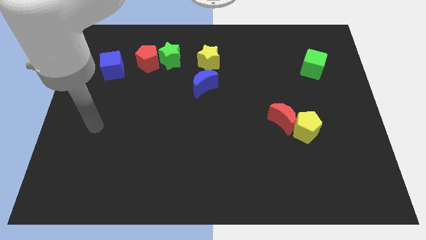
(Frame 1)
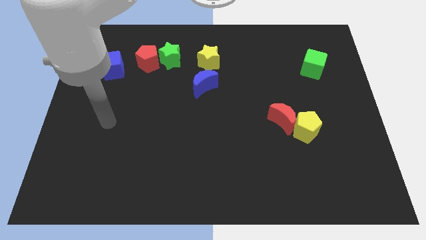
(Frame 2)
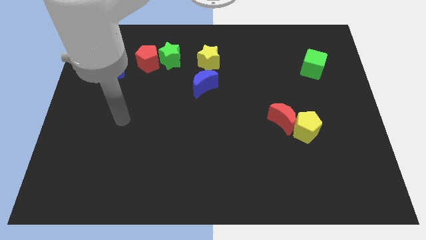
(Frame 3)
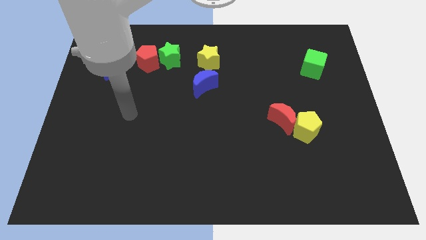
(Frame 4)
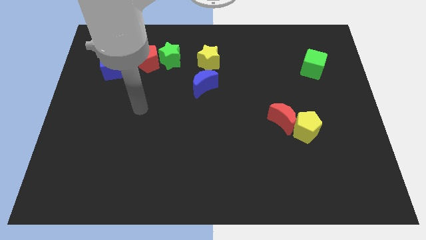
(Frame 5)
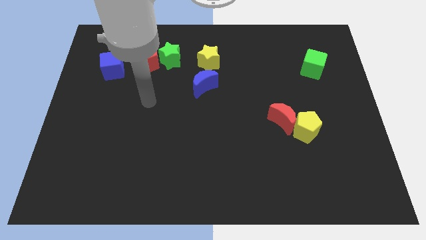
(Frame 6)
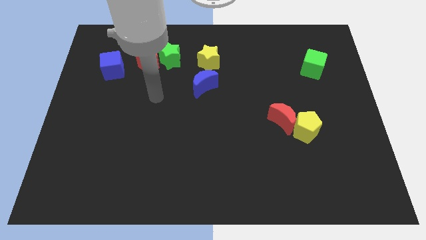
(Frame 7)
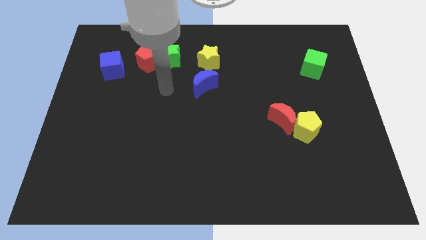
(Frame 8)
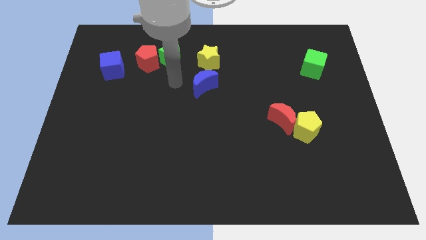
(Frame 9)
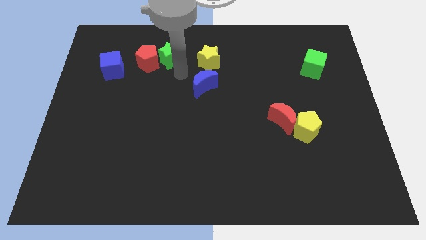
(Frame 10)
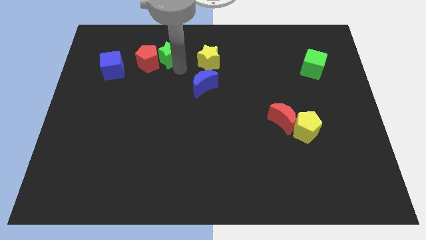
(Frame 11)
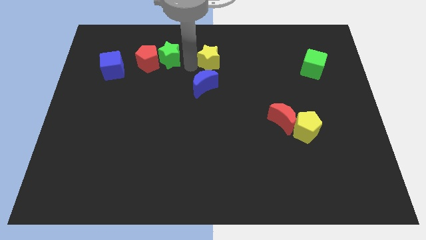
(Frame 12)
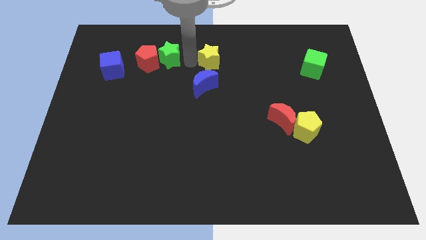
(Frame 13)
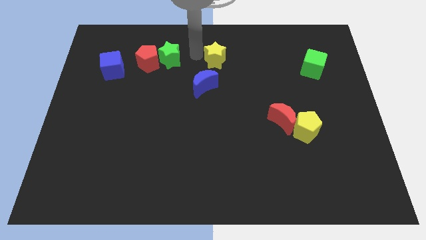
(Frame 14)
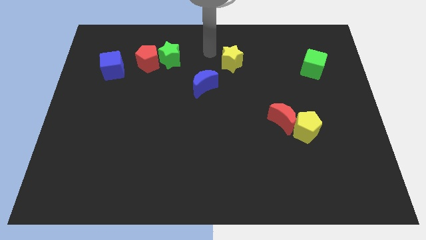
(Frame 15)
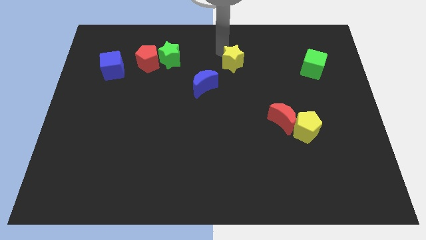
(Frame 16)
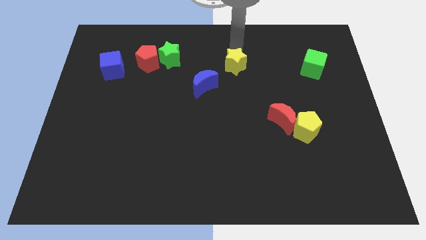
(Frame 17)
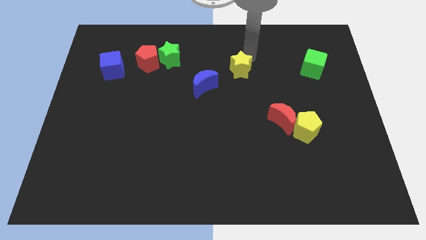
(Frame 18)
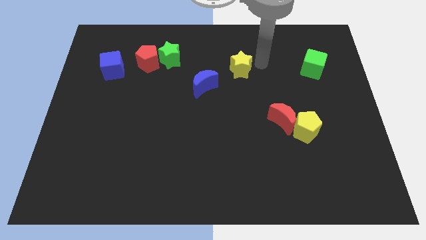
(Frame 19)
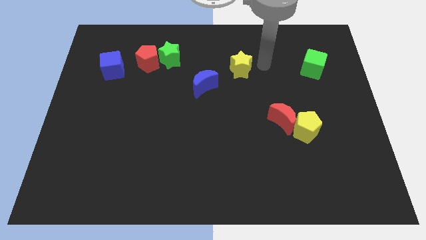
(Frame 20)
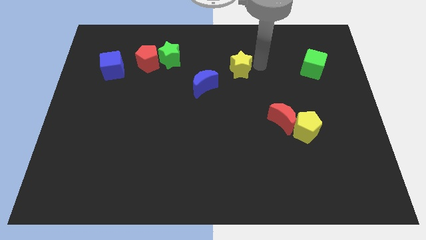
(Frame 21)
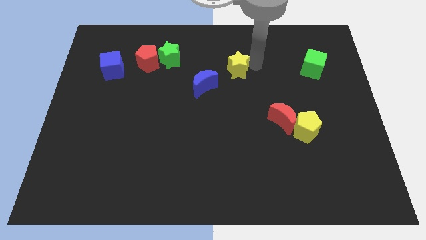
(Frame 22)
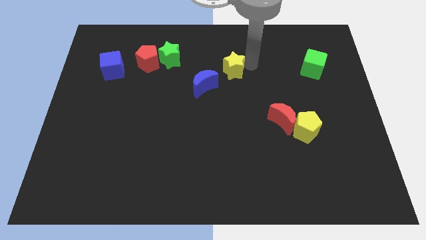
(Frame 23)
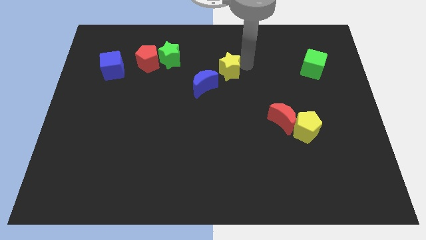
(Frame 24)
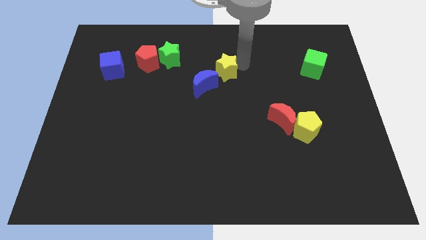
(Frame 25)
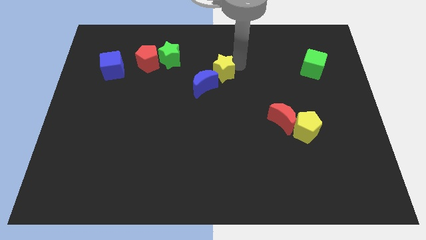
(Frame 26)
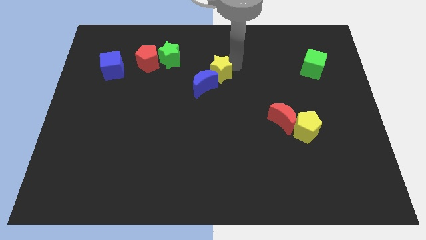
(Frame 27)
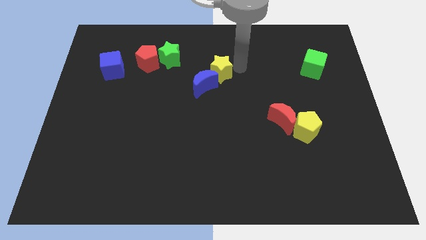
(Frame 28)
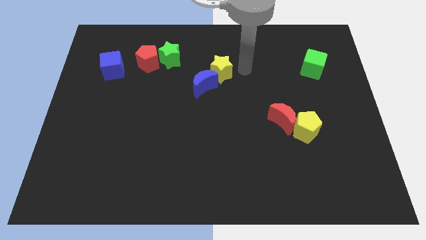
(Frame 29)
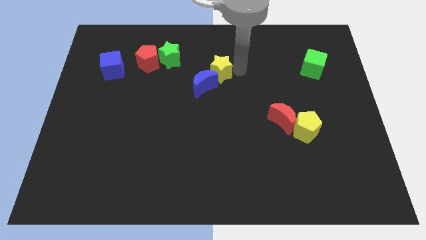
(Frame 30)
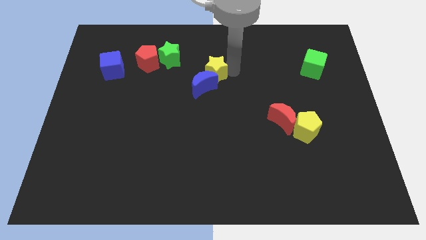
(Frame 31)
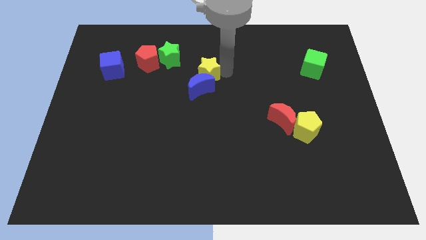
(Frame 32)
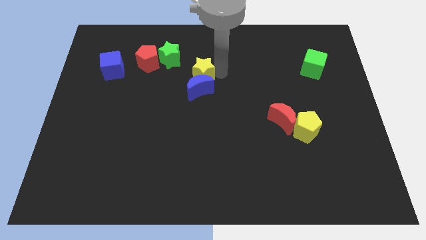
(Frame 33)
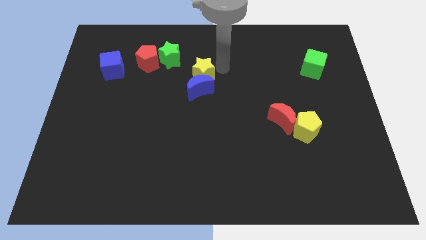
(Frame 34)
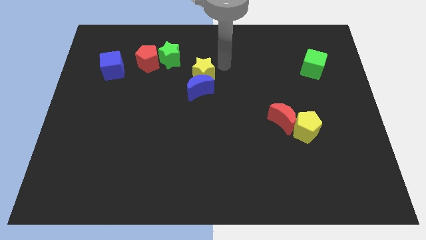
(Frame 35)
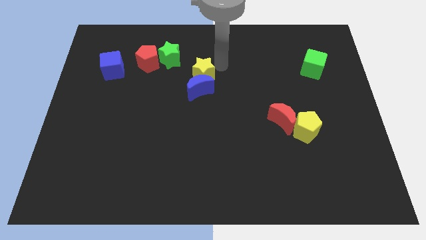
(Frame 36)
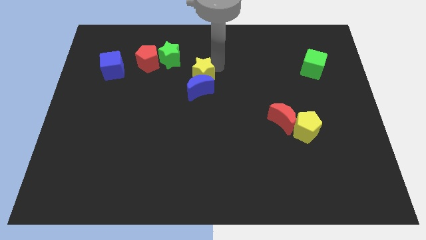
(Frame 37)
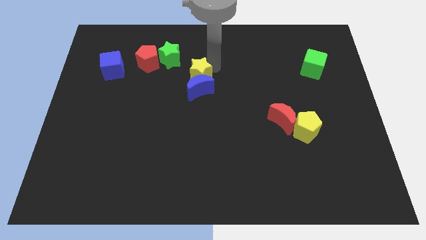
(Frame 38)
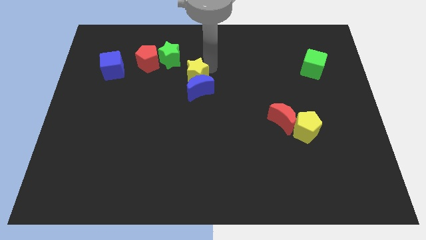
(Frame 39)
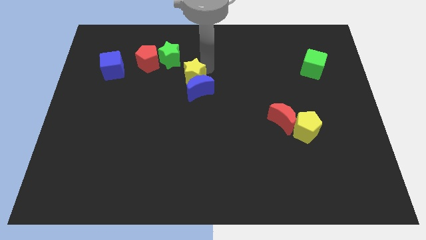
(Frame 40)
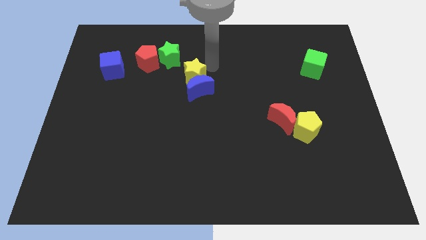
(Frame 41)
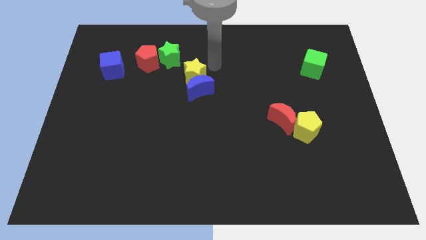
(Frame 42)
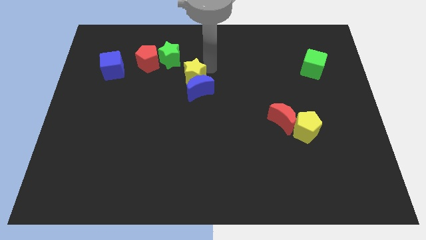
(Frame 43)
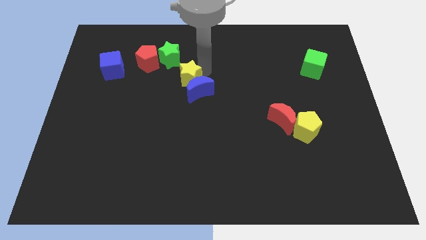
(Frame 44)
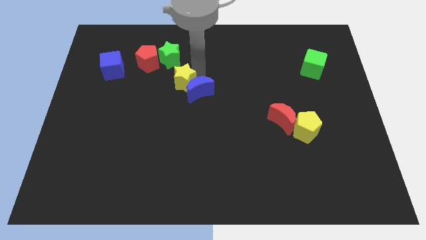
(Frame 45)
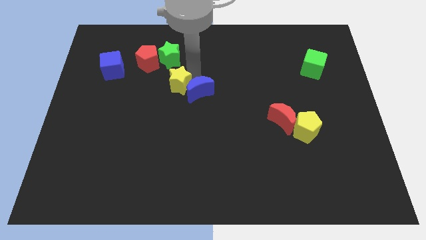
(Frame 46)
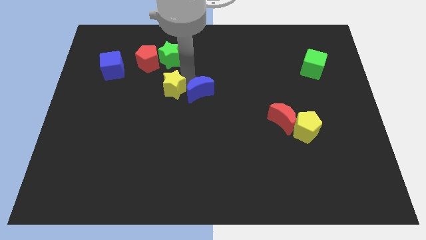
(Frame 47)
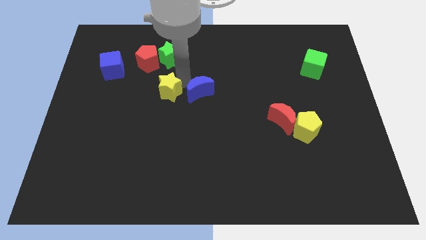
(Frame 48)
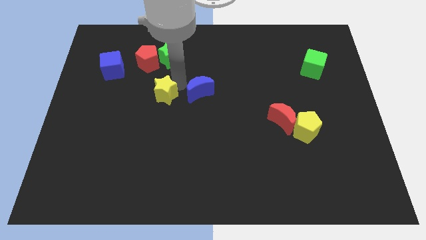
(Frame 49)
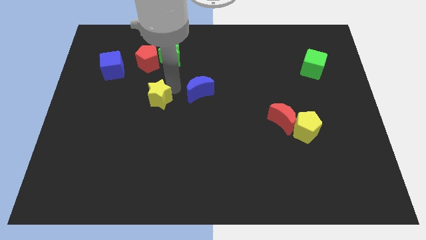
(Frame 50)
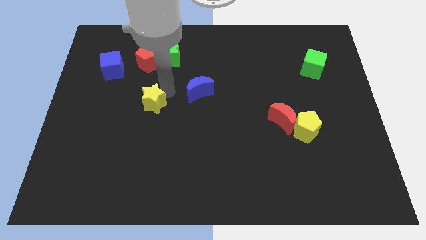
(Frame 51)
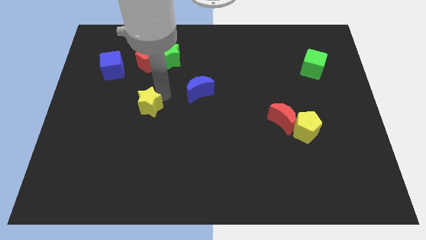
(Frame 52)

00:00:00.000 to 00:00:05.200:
move the yellow star downwards and left diagonally

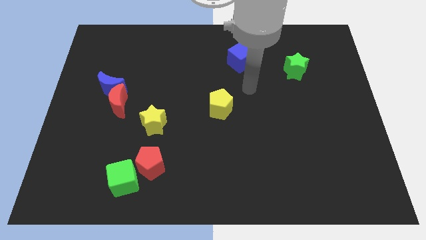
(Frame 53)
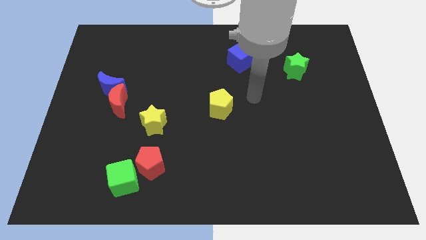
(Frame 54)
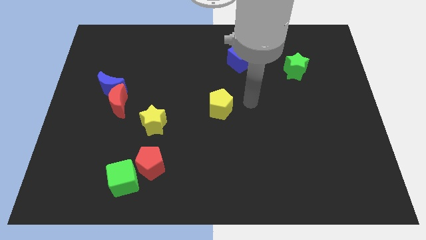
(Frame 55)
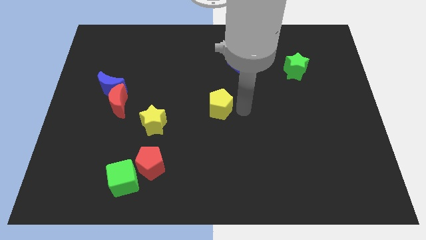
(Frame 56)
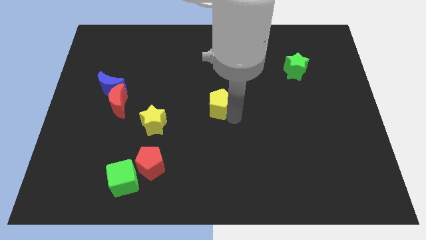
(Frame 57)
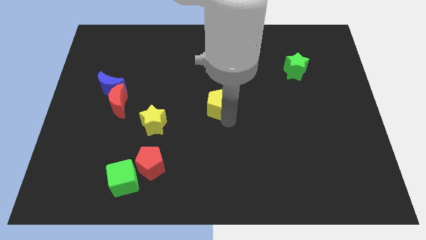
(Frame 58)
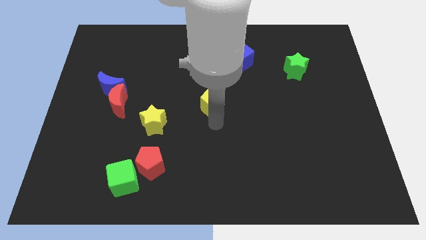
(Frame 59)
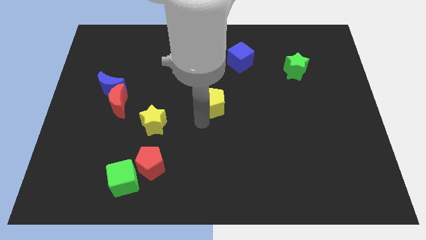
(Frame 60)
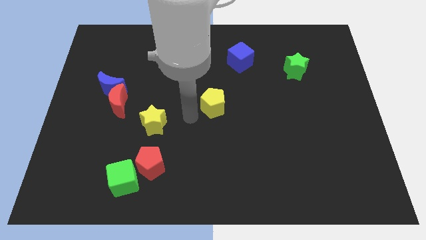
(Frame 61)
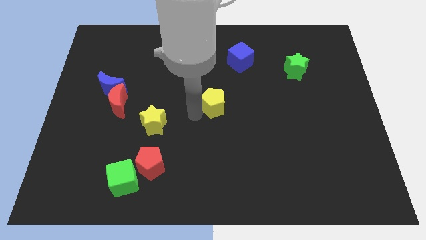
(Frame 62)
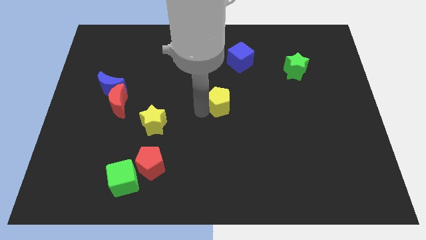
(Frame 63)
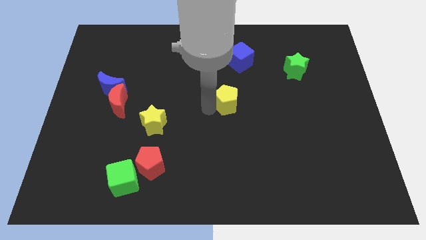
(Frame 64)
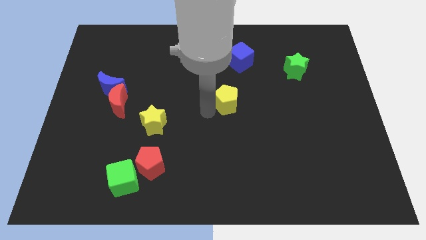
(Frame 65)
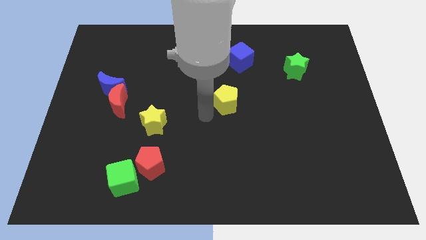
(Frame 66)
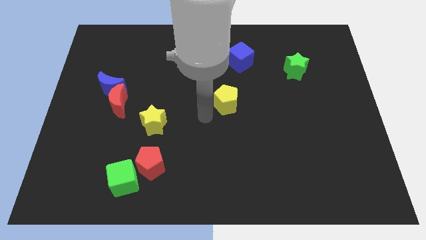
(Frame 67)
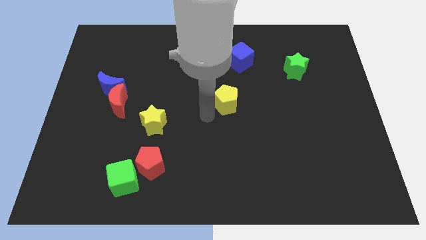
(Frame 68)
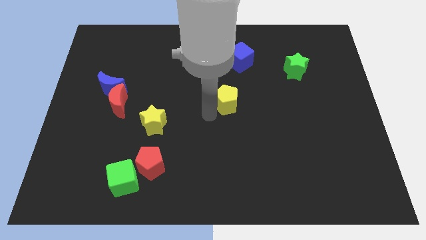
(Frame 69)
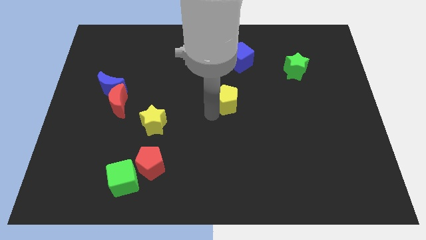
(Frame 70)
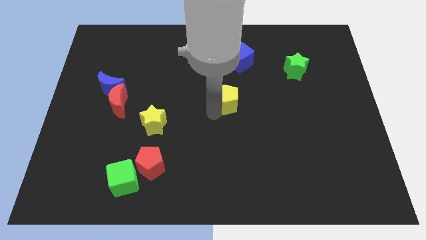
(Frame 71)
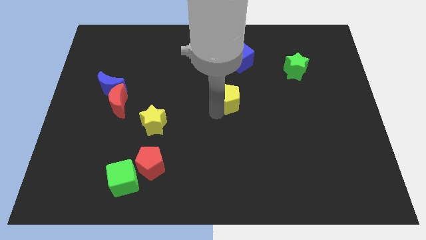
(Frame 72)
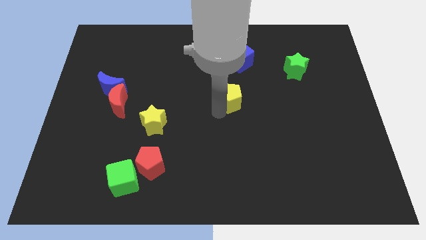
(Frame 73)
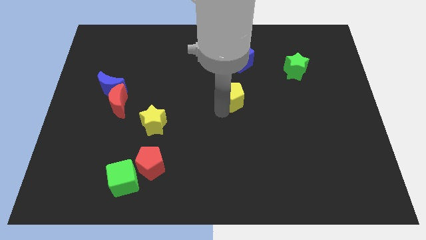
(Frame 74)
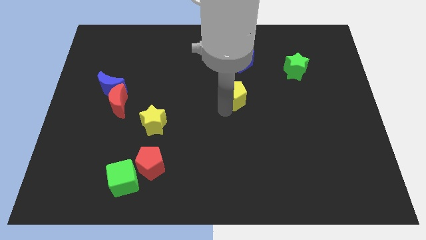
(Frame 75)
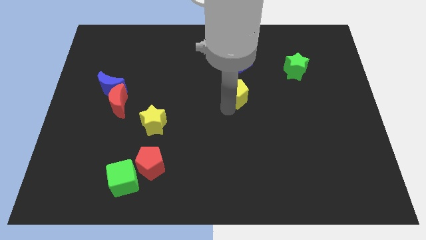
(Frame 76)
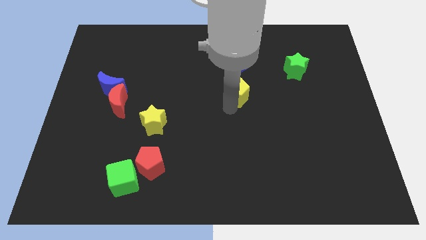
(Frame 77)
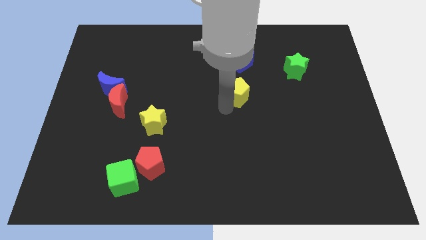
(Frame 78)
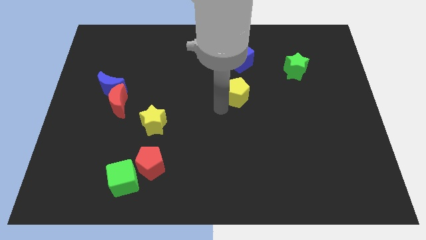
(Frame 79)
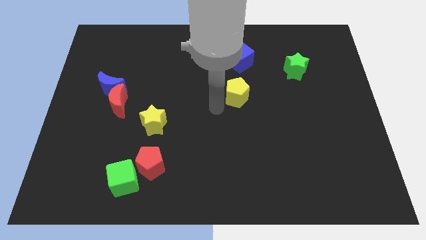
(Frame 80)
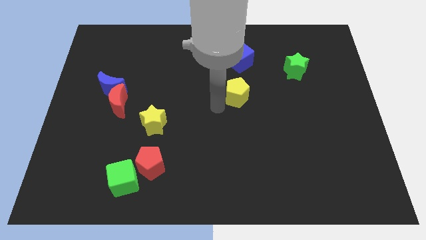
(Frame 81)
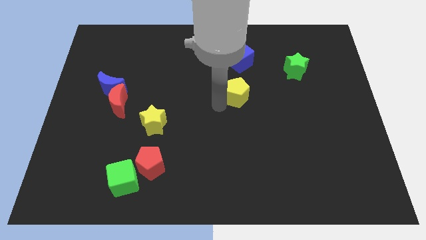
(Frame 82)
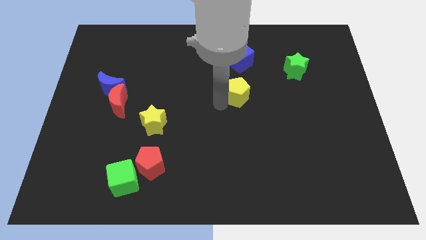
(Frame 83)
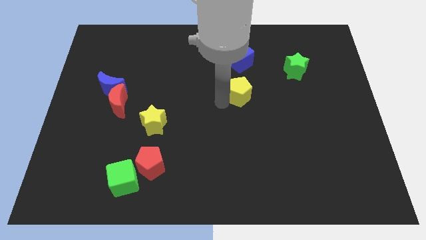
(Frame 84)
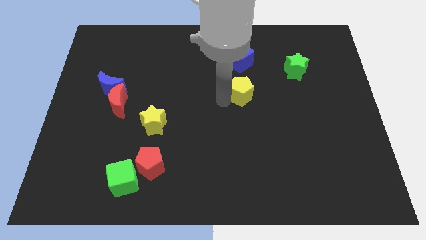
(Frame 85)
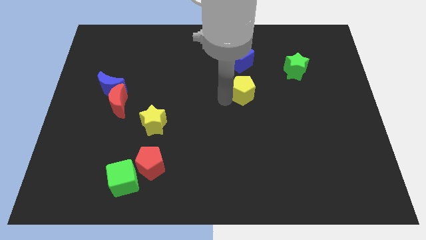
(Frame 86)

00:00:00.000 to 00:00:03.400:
slightly push the yellow pentagon up and then to the right
